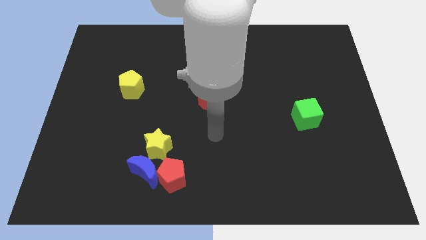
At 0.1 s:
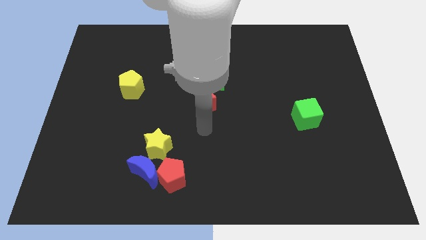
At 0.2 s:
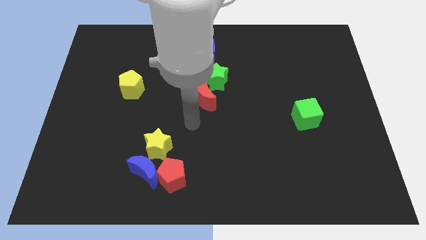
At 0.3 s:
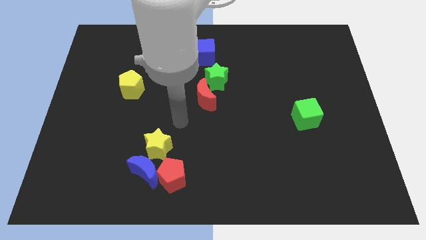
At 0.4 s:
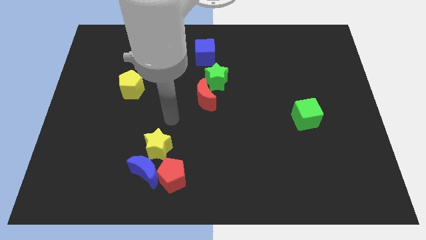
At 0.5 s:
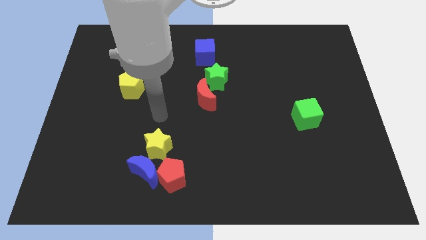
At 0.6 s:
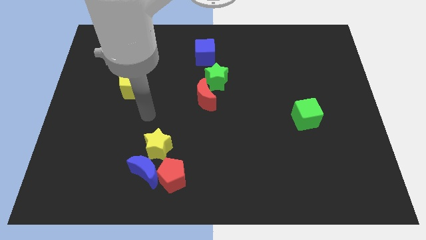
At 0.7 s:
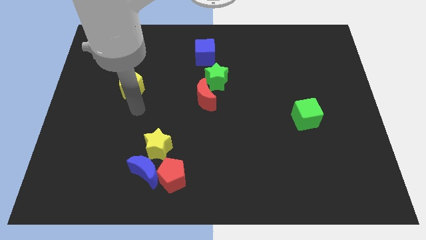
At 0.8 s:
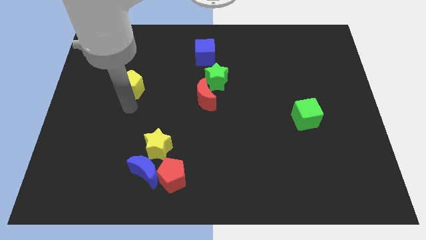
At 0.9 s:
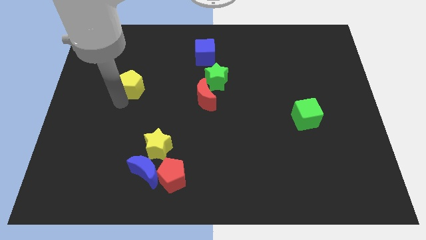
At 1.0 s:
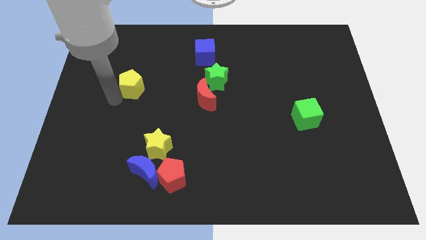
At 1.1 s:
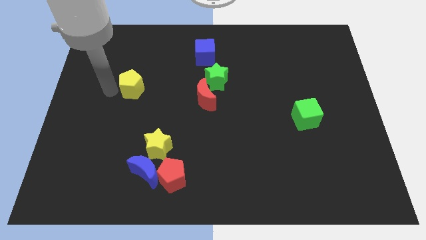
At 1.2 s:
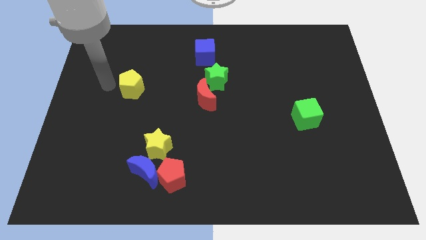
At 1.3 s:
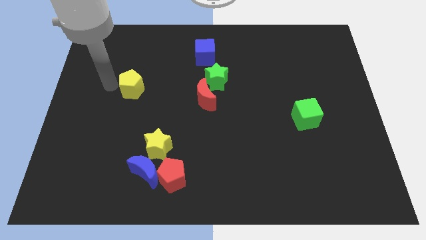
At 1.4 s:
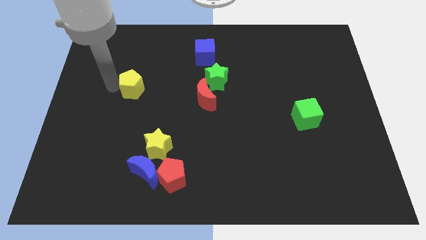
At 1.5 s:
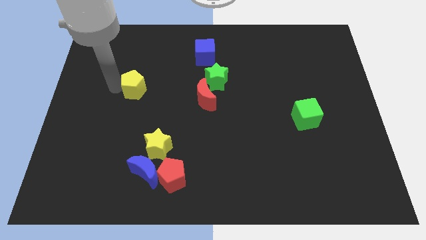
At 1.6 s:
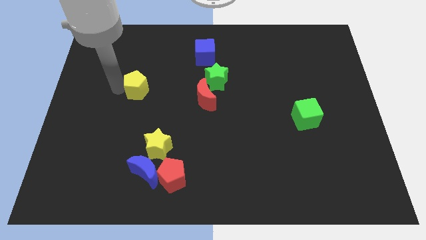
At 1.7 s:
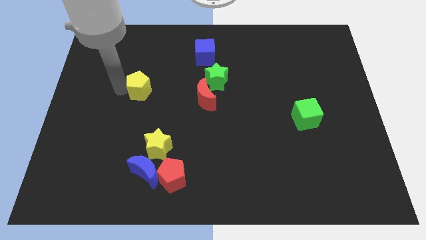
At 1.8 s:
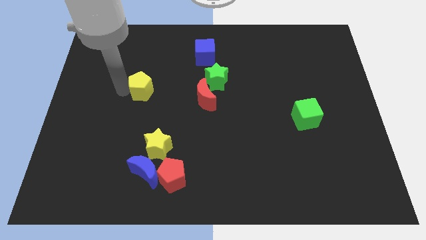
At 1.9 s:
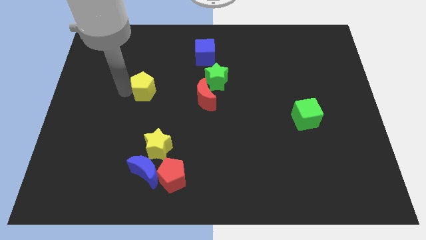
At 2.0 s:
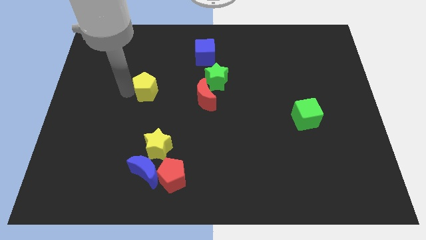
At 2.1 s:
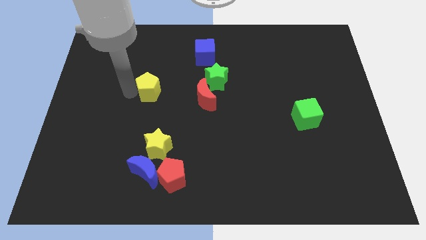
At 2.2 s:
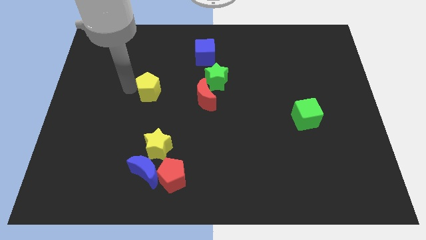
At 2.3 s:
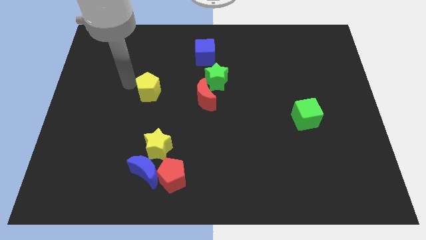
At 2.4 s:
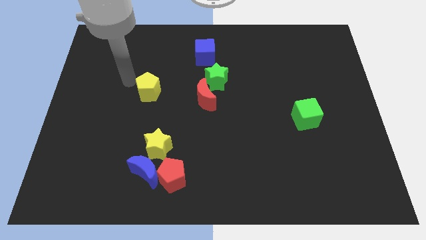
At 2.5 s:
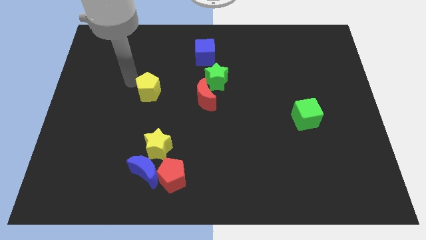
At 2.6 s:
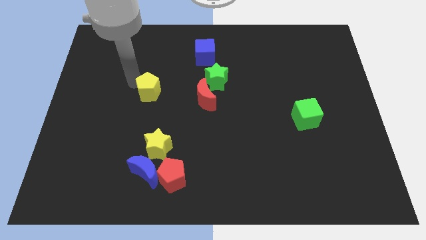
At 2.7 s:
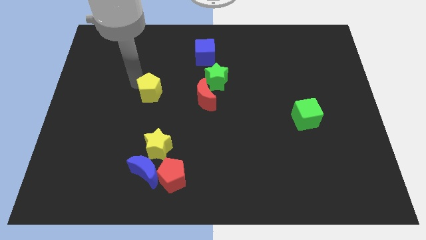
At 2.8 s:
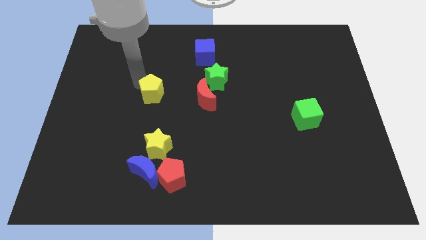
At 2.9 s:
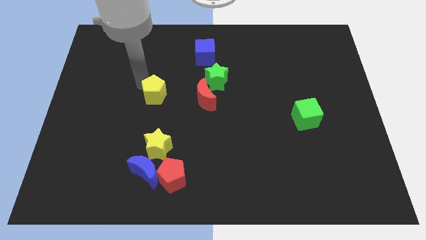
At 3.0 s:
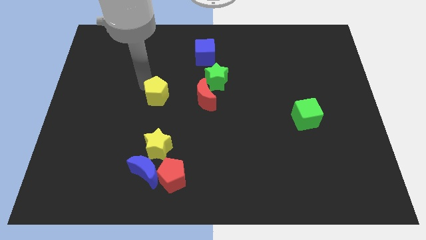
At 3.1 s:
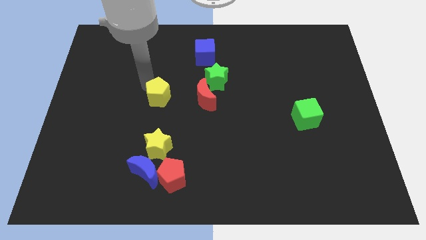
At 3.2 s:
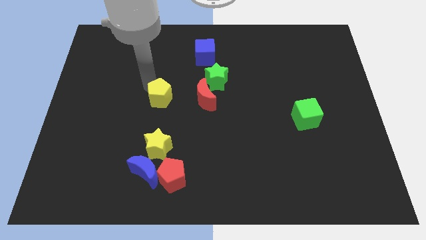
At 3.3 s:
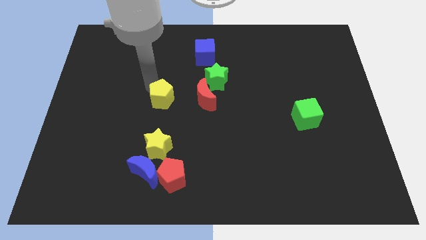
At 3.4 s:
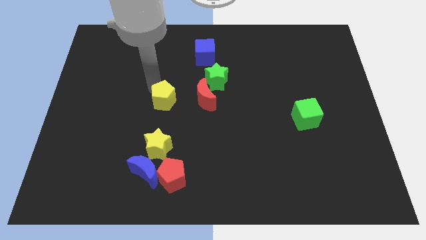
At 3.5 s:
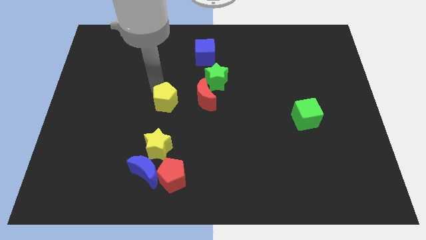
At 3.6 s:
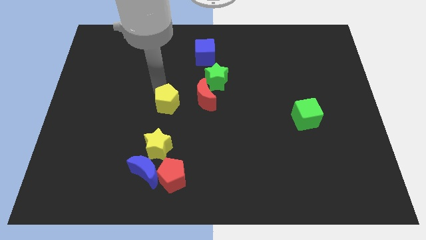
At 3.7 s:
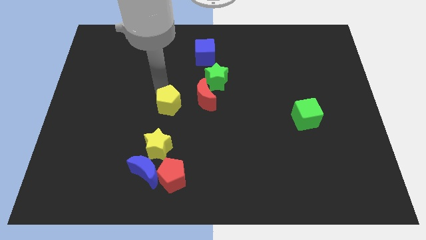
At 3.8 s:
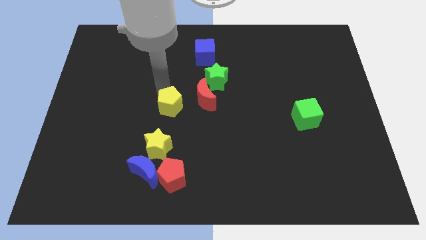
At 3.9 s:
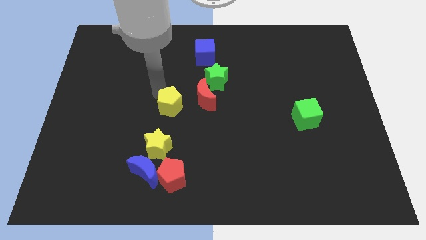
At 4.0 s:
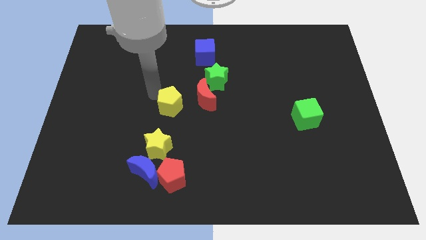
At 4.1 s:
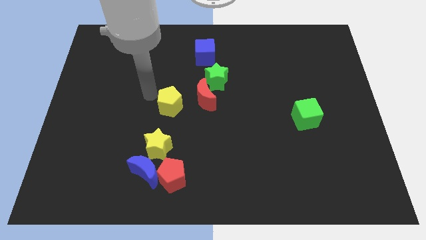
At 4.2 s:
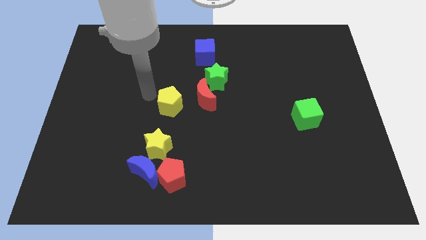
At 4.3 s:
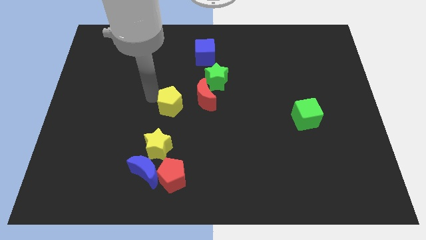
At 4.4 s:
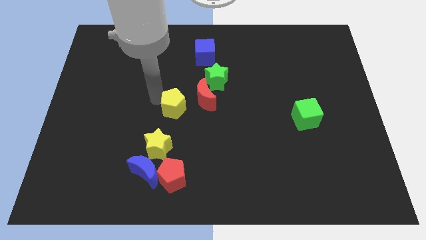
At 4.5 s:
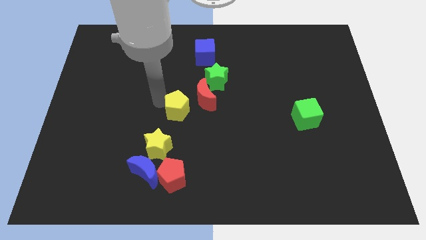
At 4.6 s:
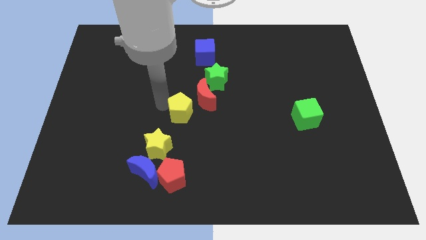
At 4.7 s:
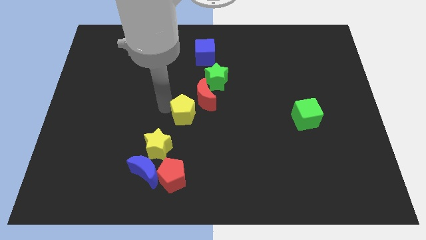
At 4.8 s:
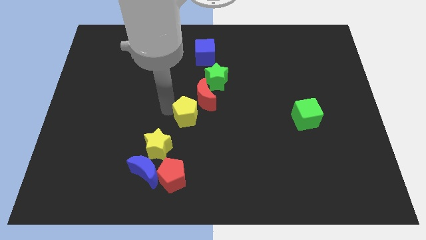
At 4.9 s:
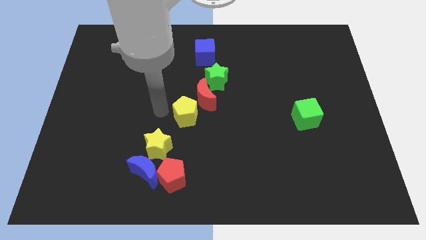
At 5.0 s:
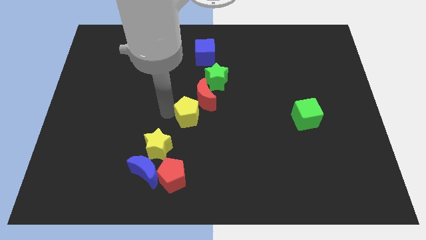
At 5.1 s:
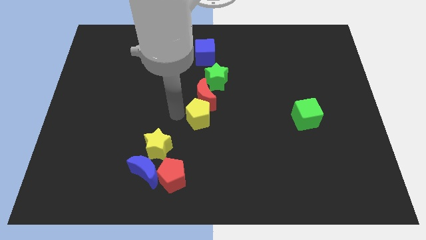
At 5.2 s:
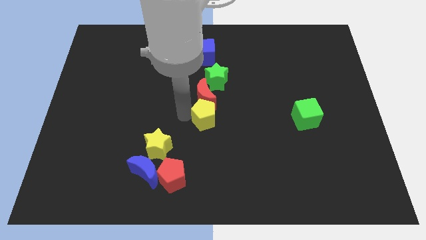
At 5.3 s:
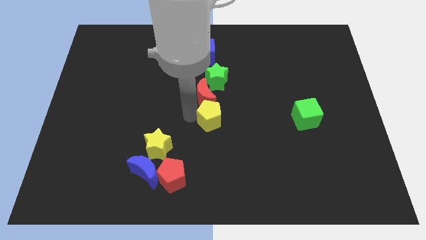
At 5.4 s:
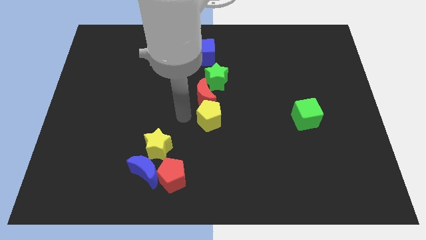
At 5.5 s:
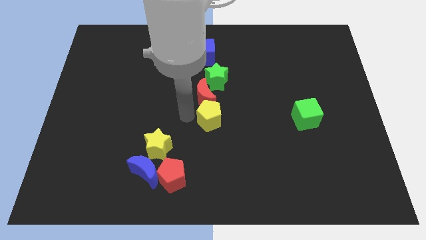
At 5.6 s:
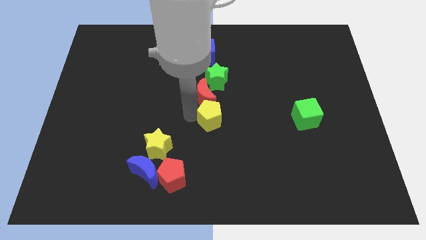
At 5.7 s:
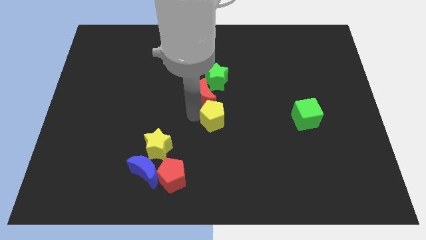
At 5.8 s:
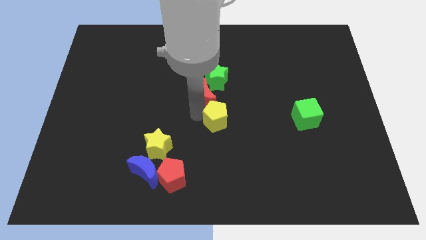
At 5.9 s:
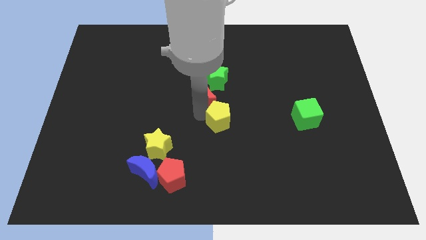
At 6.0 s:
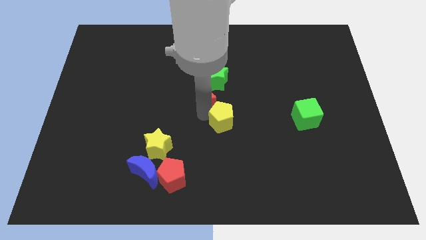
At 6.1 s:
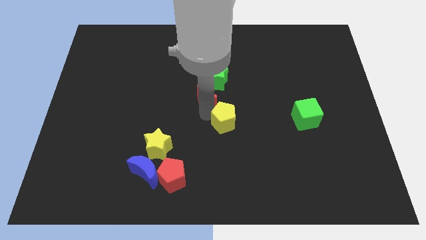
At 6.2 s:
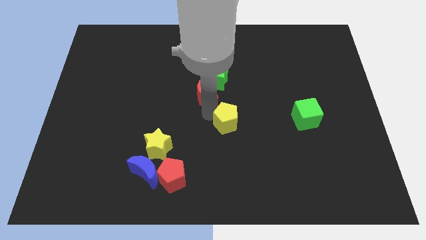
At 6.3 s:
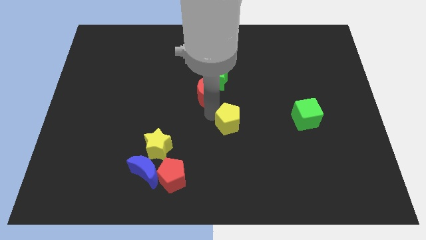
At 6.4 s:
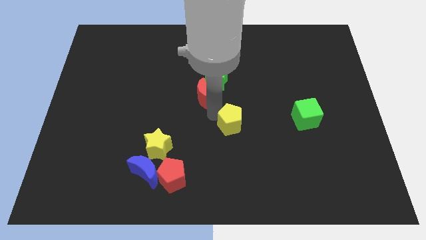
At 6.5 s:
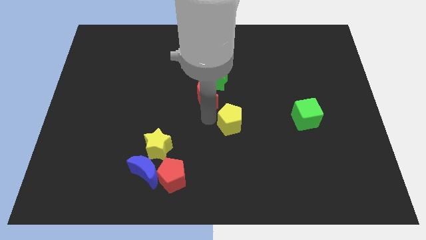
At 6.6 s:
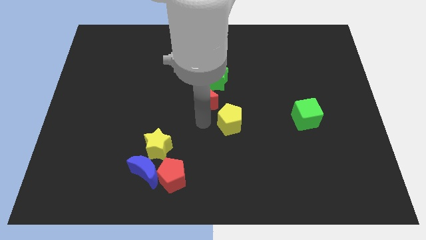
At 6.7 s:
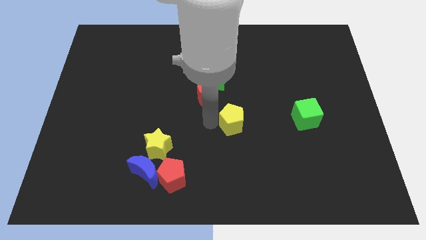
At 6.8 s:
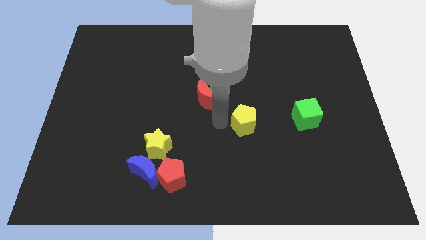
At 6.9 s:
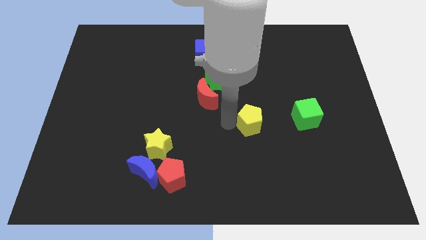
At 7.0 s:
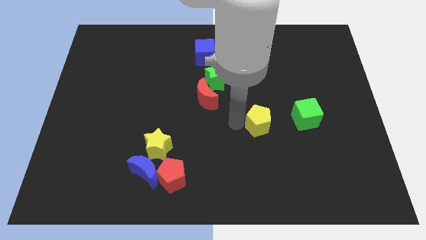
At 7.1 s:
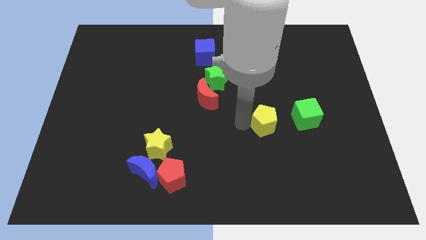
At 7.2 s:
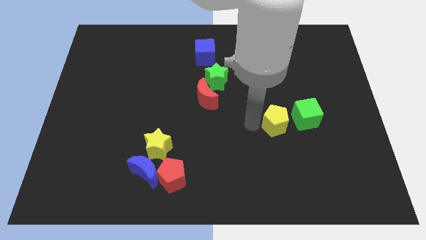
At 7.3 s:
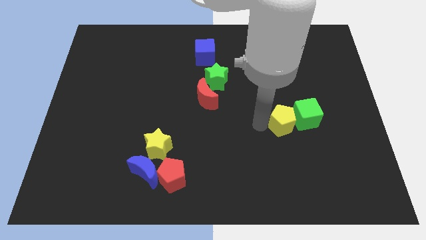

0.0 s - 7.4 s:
move the yellow pentagon to the green cube
